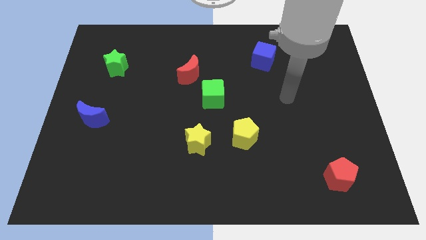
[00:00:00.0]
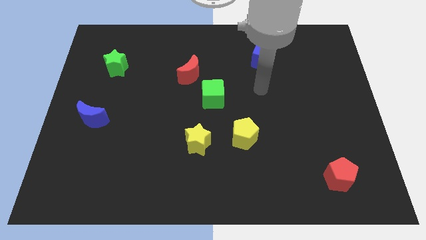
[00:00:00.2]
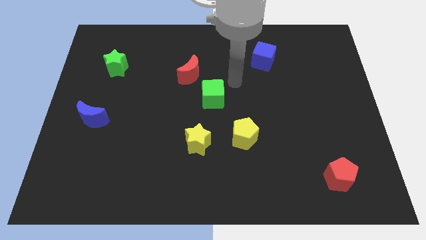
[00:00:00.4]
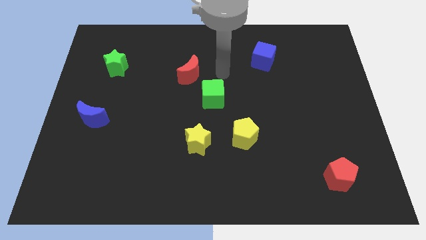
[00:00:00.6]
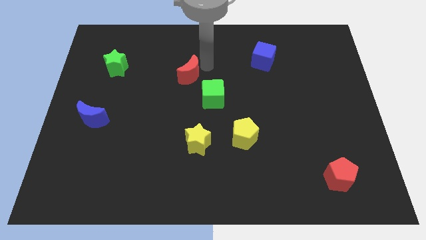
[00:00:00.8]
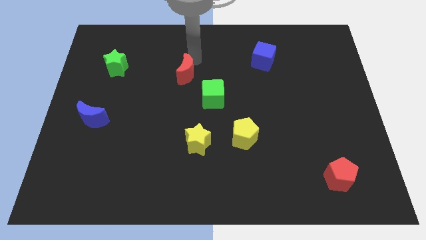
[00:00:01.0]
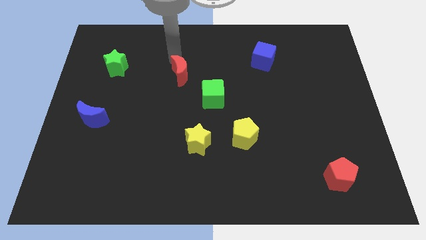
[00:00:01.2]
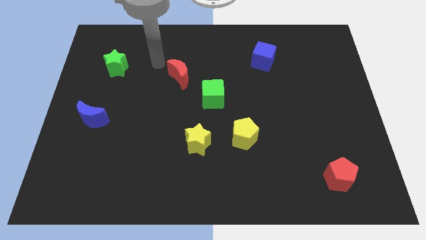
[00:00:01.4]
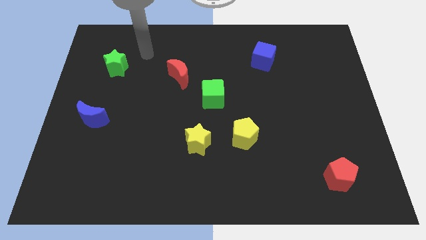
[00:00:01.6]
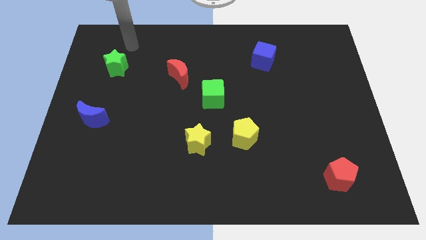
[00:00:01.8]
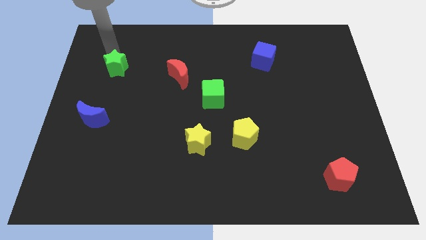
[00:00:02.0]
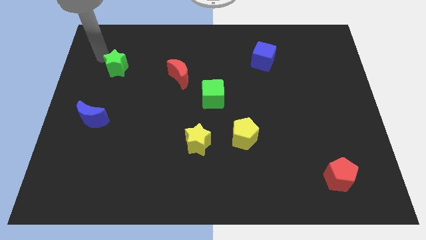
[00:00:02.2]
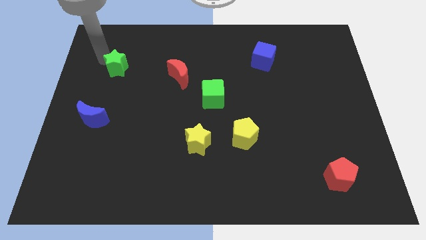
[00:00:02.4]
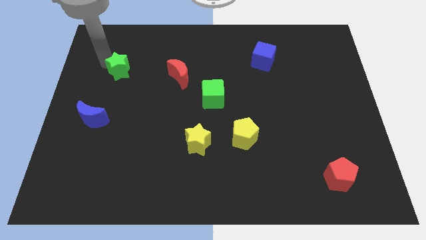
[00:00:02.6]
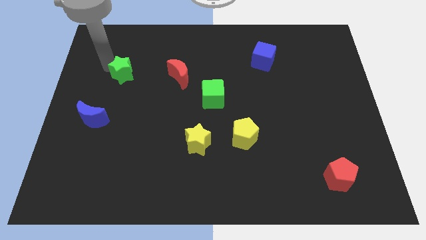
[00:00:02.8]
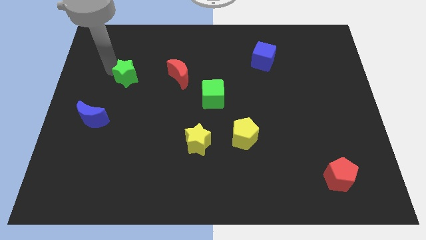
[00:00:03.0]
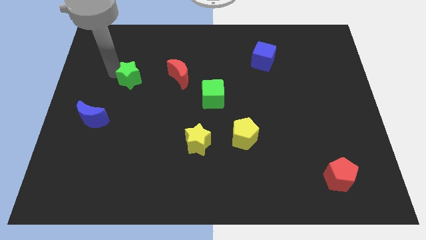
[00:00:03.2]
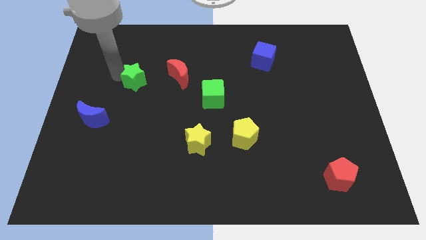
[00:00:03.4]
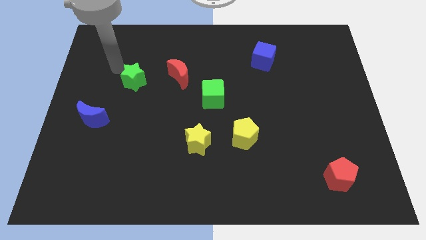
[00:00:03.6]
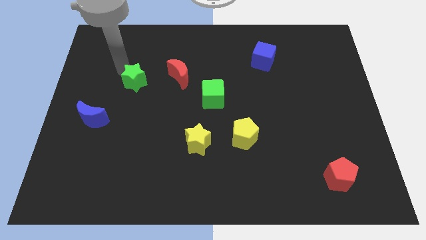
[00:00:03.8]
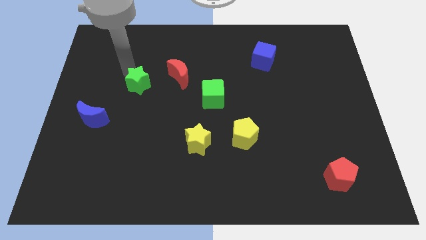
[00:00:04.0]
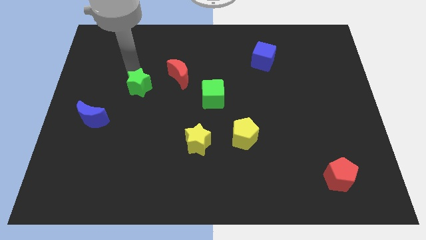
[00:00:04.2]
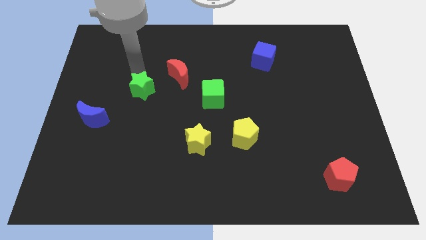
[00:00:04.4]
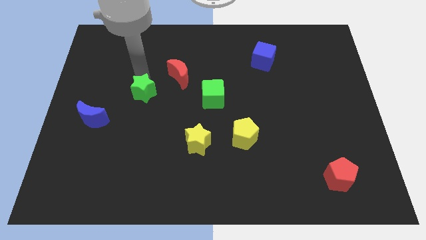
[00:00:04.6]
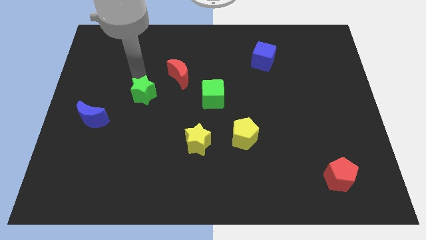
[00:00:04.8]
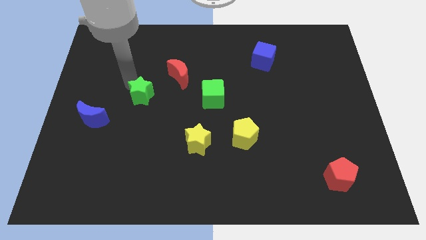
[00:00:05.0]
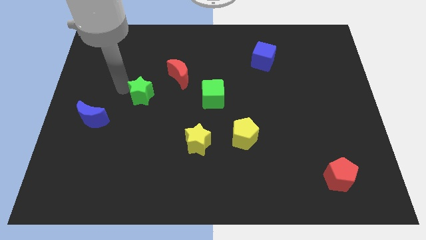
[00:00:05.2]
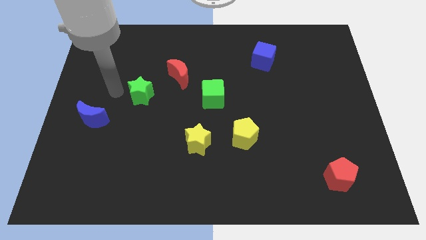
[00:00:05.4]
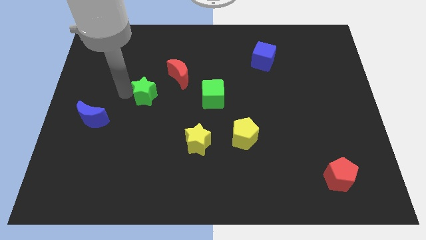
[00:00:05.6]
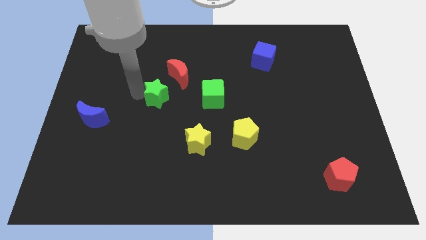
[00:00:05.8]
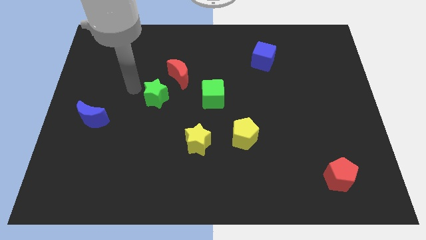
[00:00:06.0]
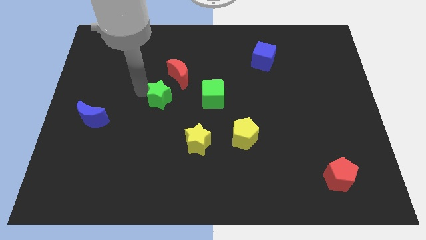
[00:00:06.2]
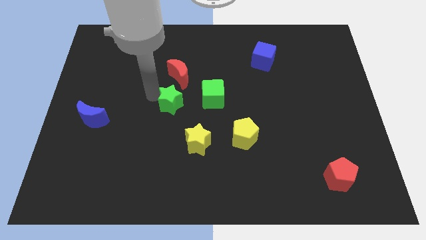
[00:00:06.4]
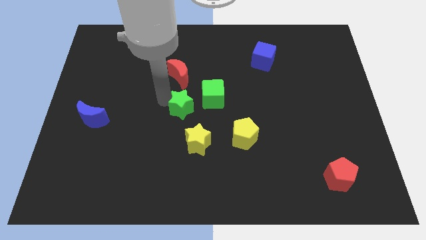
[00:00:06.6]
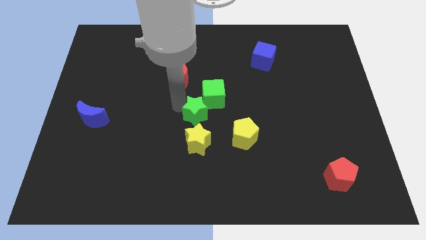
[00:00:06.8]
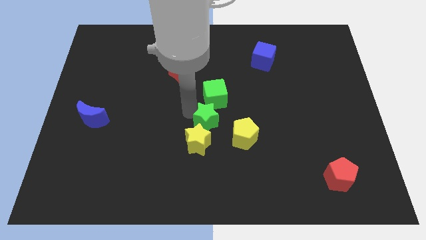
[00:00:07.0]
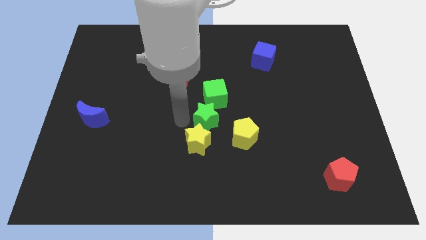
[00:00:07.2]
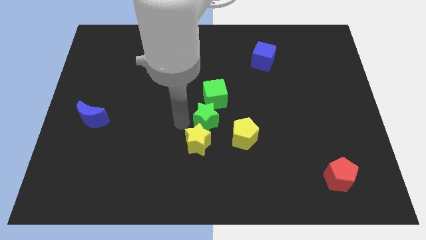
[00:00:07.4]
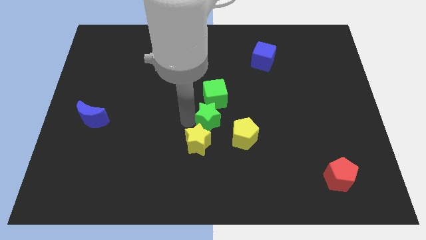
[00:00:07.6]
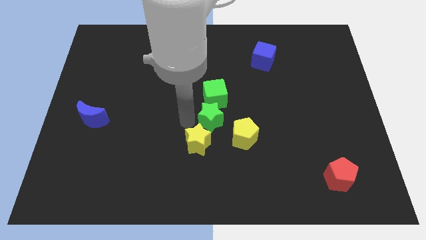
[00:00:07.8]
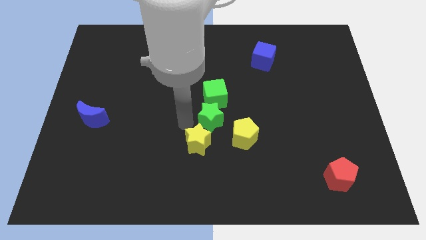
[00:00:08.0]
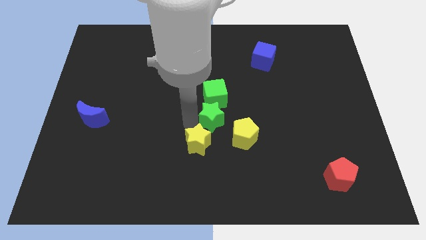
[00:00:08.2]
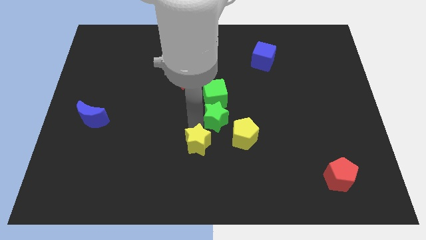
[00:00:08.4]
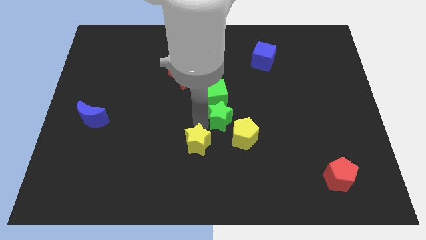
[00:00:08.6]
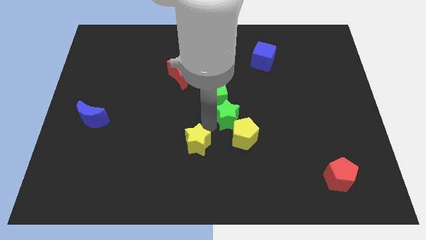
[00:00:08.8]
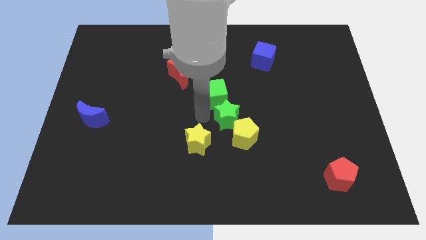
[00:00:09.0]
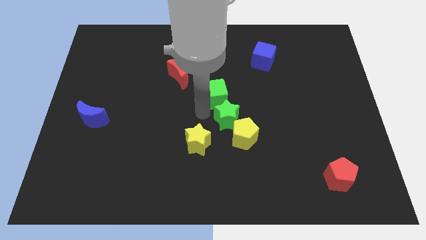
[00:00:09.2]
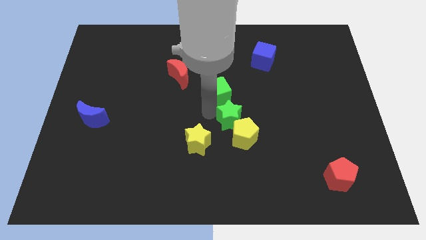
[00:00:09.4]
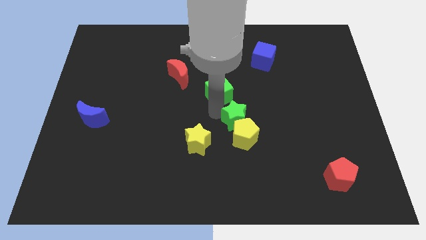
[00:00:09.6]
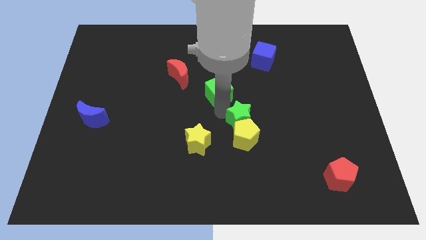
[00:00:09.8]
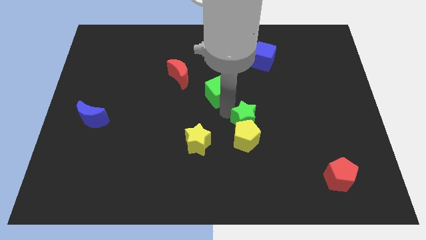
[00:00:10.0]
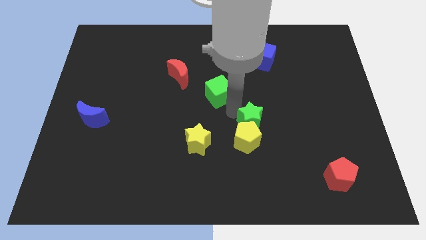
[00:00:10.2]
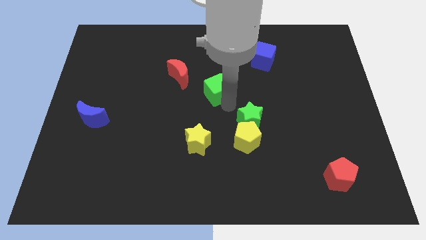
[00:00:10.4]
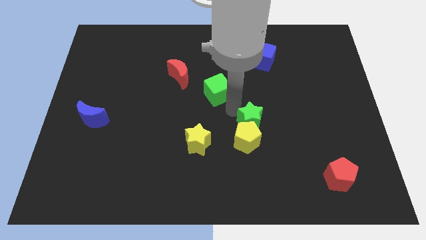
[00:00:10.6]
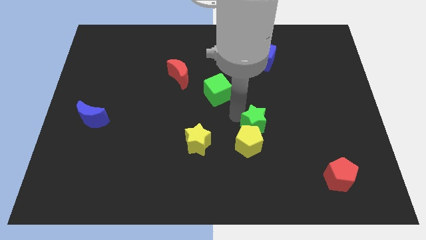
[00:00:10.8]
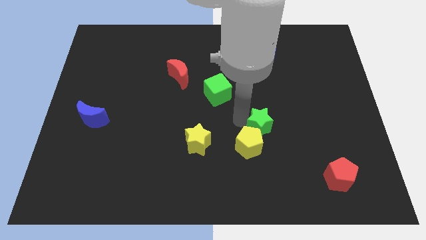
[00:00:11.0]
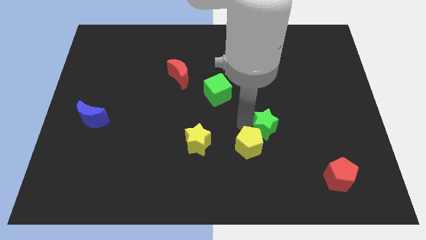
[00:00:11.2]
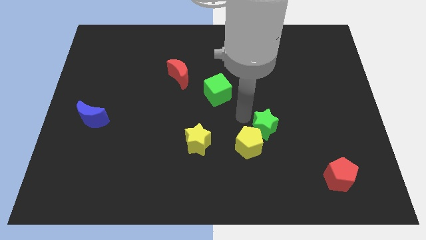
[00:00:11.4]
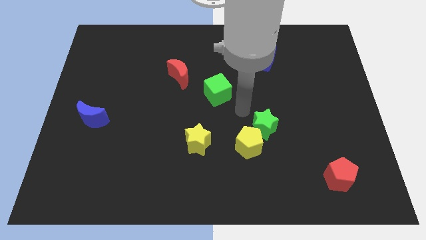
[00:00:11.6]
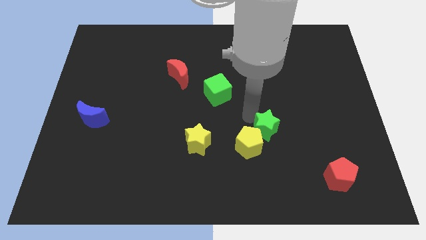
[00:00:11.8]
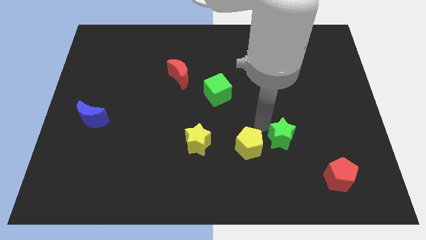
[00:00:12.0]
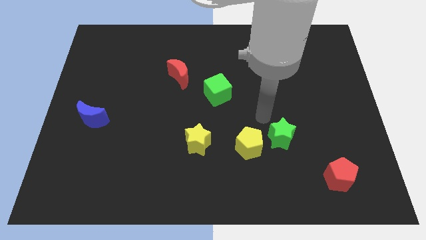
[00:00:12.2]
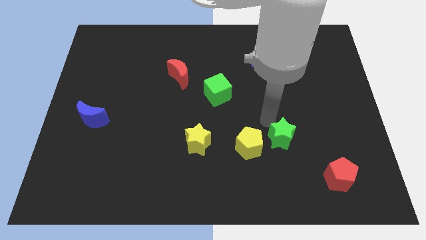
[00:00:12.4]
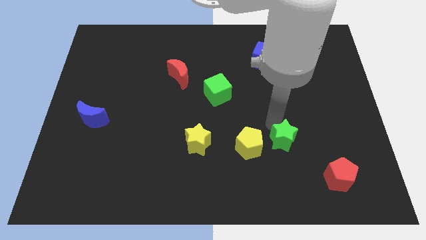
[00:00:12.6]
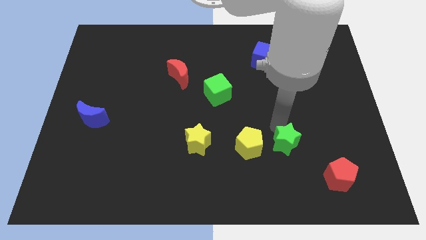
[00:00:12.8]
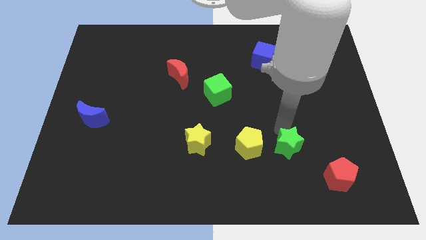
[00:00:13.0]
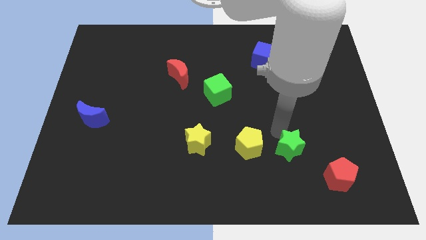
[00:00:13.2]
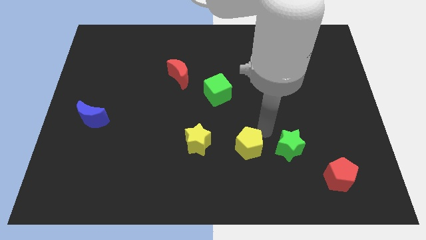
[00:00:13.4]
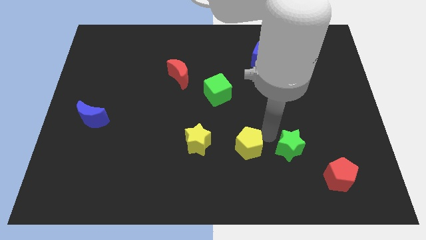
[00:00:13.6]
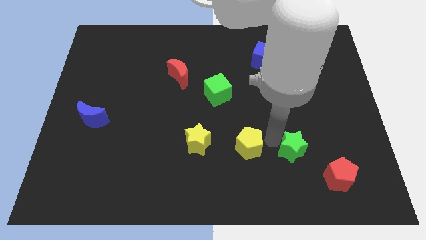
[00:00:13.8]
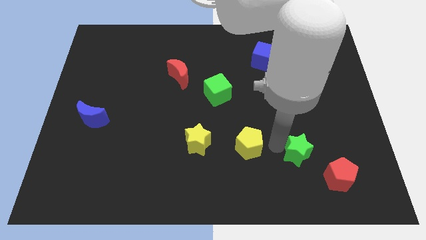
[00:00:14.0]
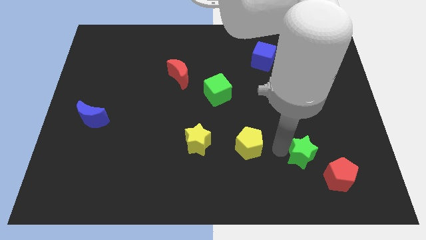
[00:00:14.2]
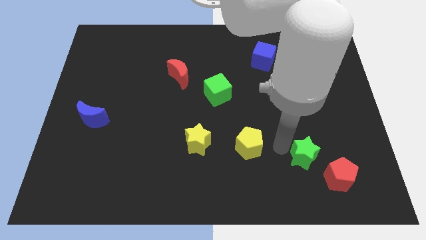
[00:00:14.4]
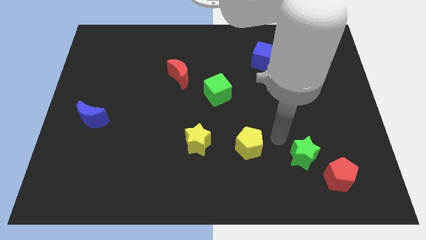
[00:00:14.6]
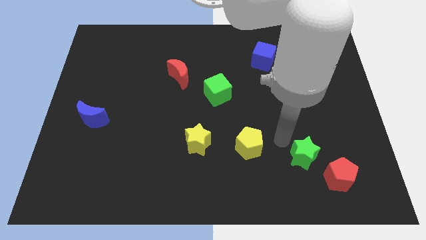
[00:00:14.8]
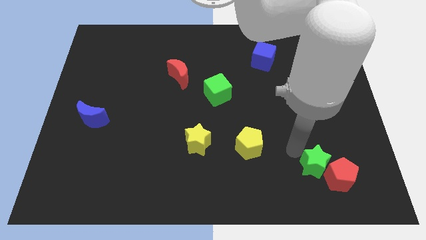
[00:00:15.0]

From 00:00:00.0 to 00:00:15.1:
put the green star towards the red pentagon
